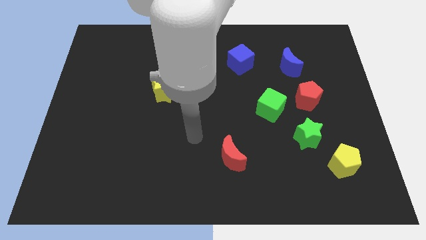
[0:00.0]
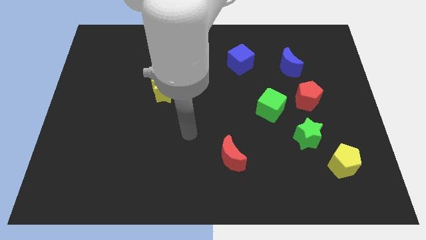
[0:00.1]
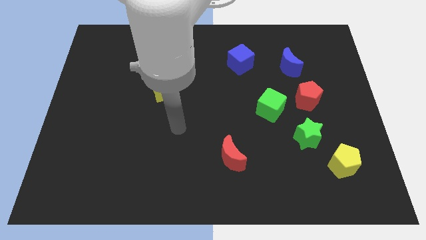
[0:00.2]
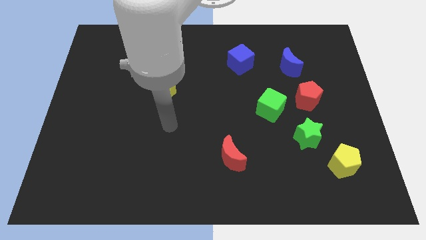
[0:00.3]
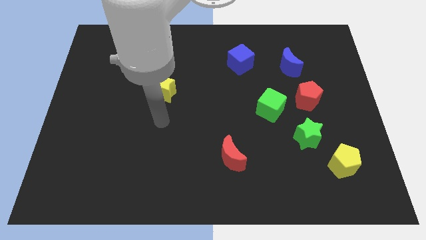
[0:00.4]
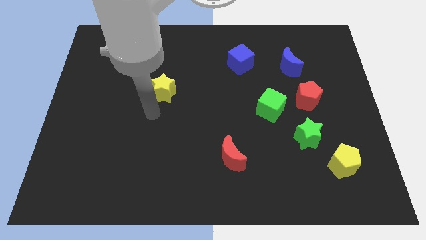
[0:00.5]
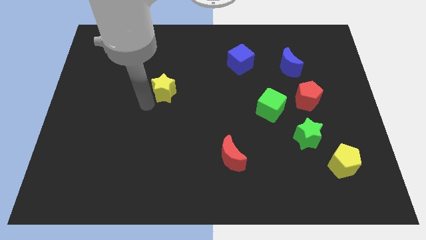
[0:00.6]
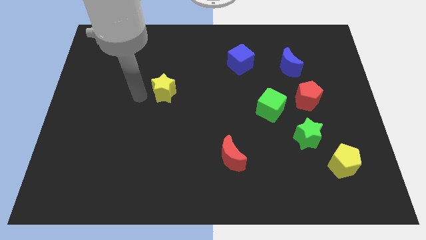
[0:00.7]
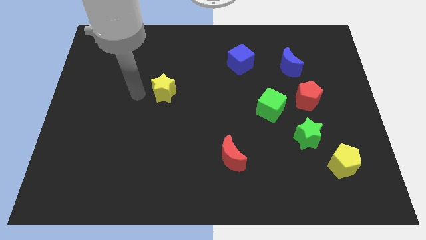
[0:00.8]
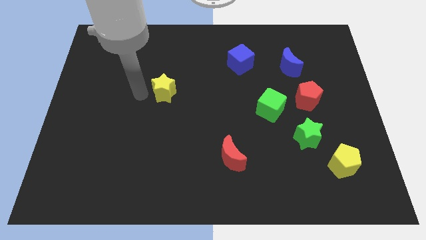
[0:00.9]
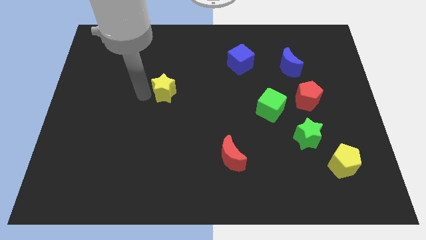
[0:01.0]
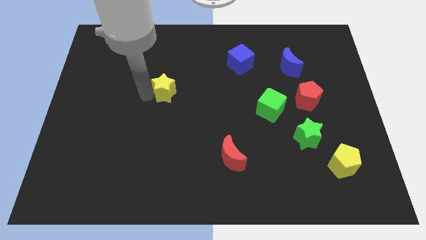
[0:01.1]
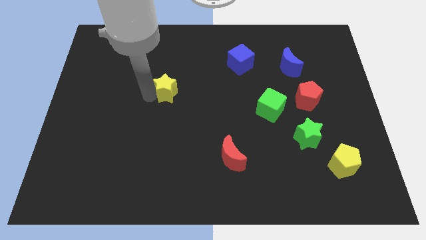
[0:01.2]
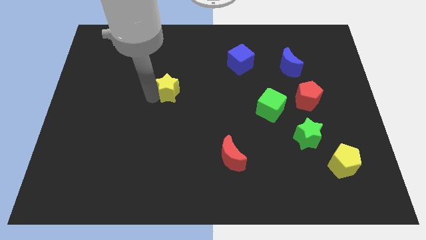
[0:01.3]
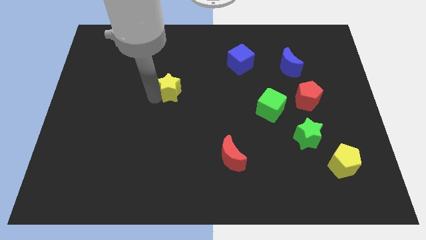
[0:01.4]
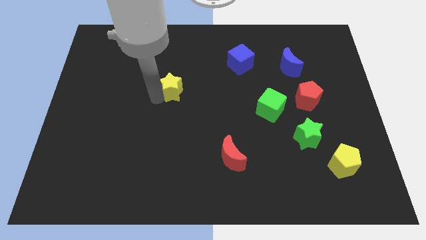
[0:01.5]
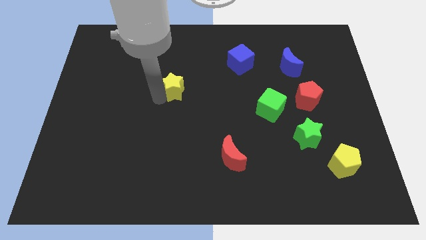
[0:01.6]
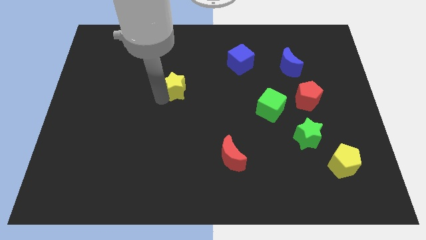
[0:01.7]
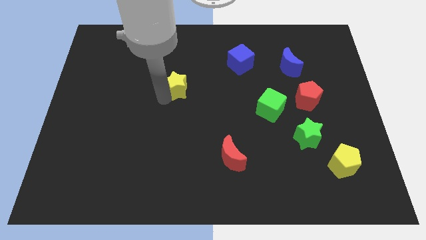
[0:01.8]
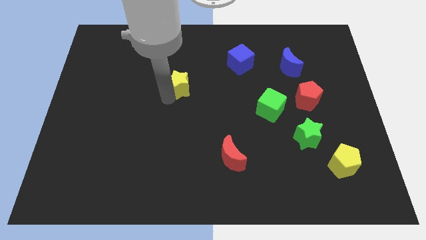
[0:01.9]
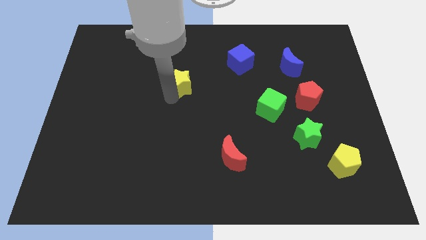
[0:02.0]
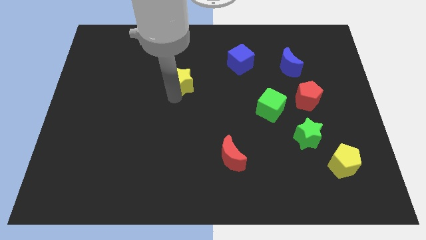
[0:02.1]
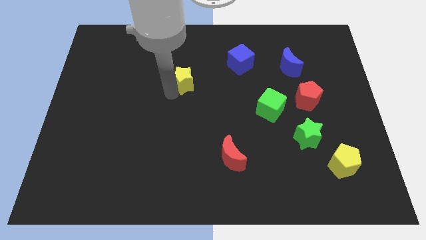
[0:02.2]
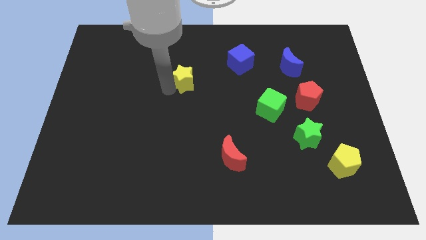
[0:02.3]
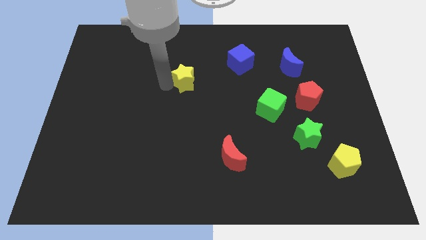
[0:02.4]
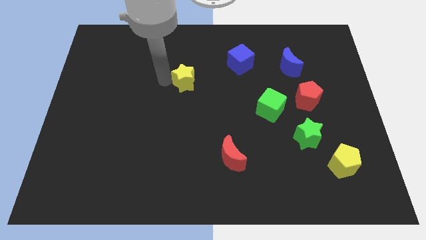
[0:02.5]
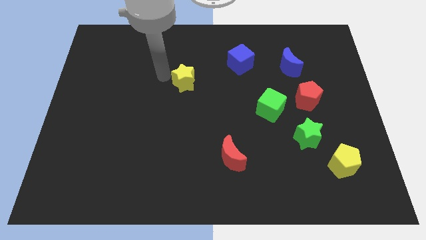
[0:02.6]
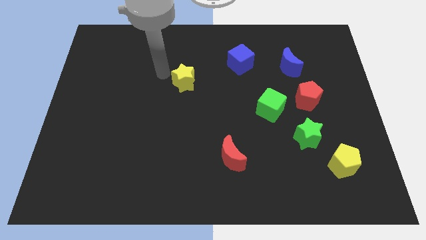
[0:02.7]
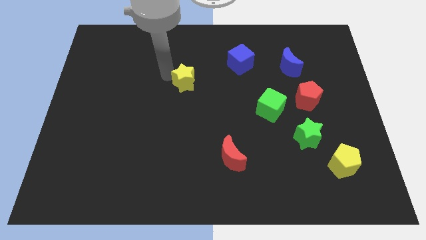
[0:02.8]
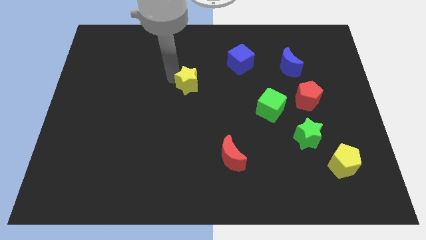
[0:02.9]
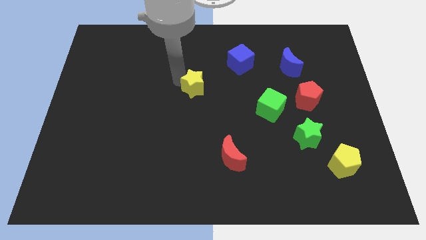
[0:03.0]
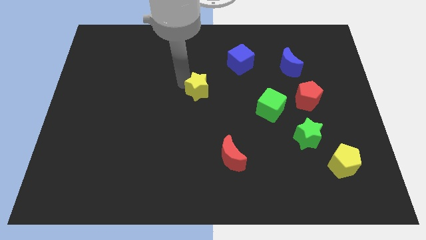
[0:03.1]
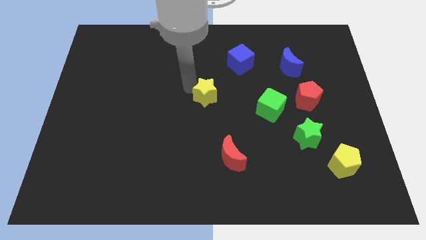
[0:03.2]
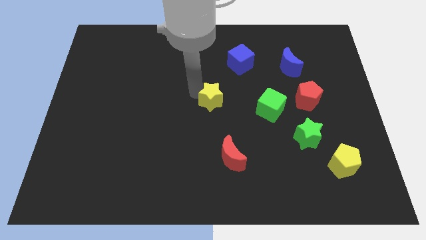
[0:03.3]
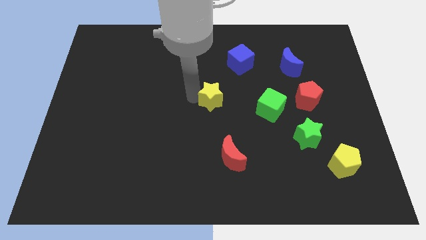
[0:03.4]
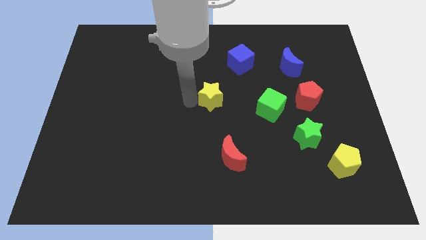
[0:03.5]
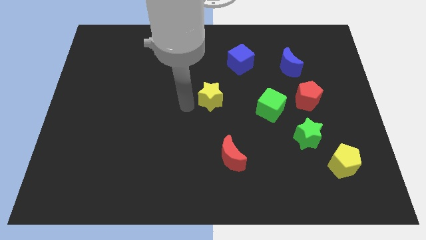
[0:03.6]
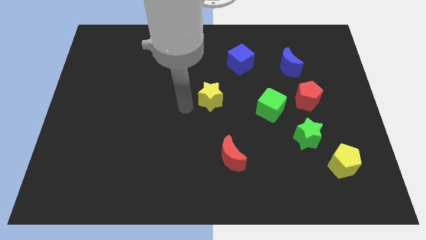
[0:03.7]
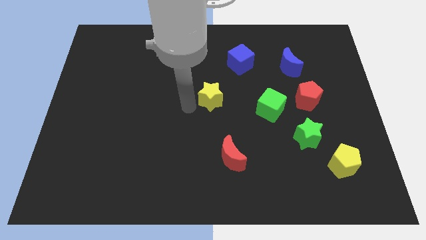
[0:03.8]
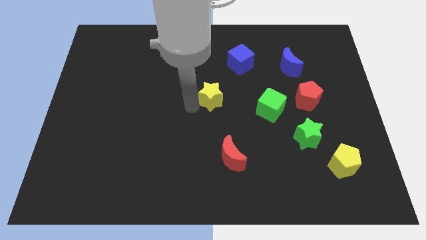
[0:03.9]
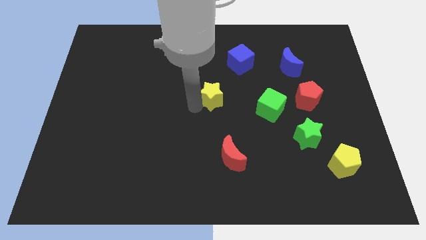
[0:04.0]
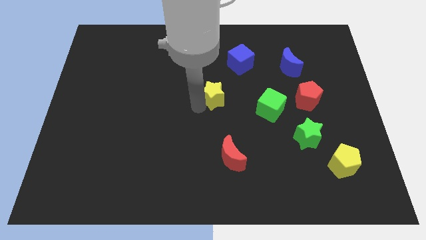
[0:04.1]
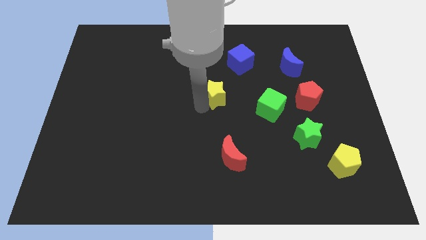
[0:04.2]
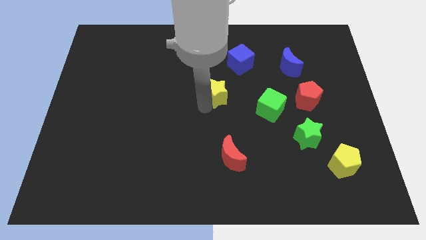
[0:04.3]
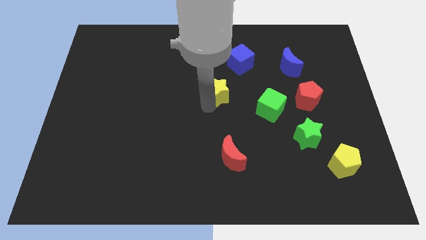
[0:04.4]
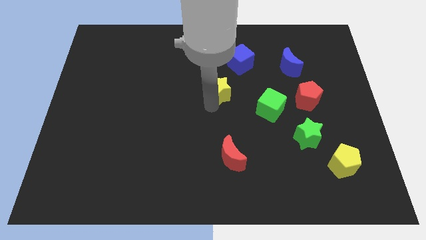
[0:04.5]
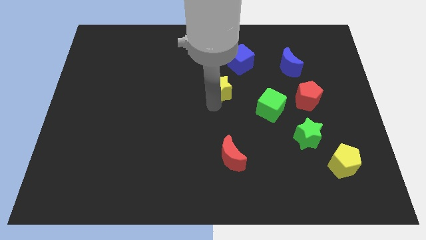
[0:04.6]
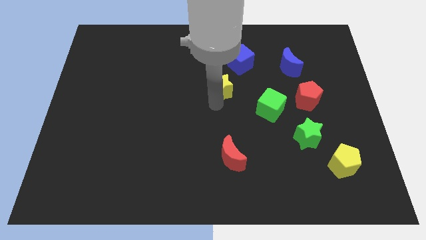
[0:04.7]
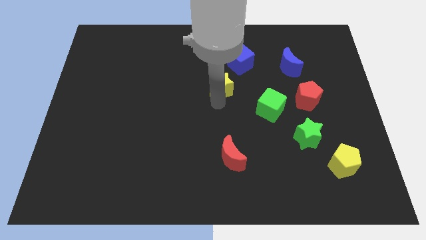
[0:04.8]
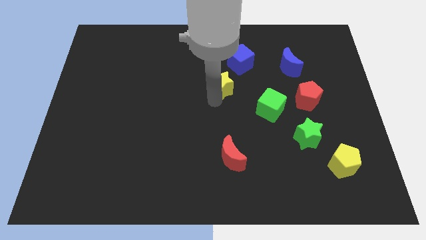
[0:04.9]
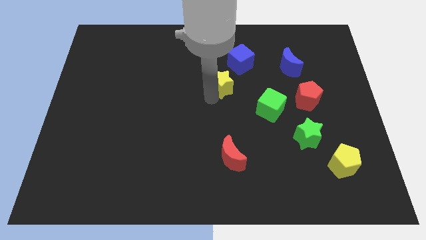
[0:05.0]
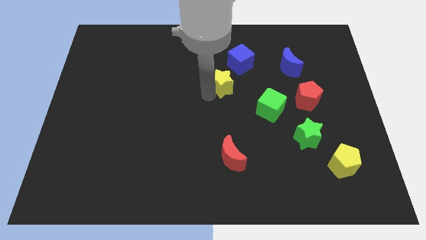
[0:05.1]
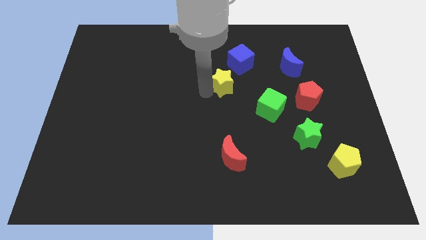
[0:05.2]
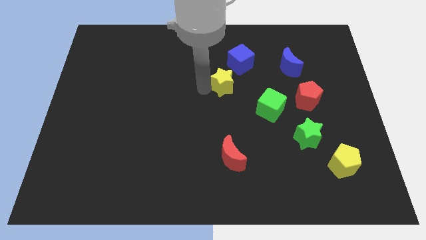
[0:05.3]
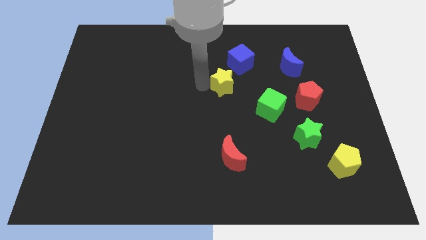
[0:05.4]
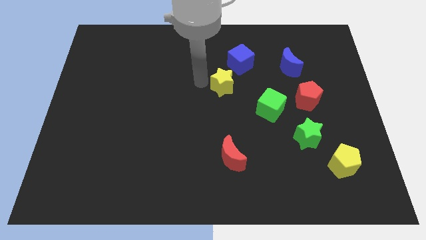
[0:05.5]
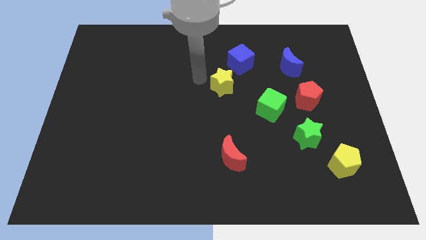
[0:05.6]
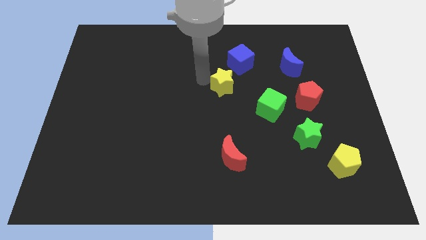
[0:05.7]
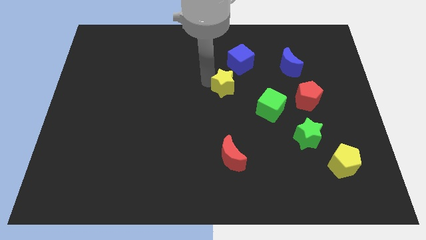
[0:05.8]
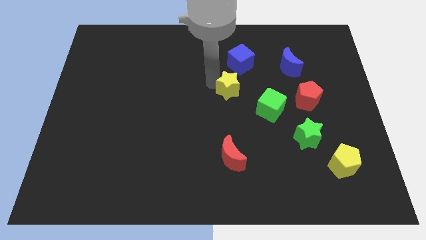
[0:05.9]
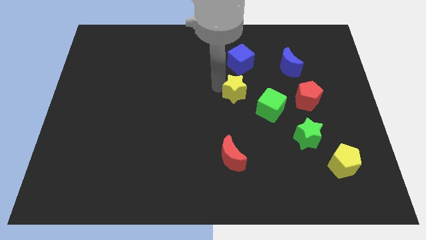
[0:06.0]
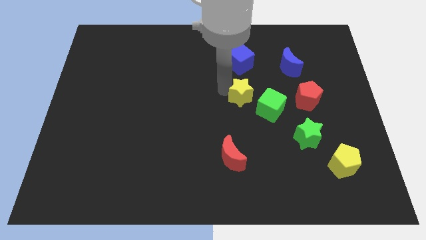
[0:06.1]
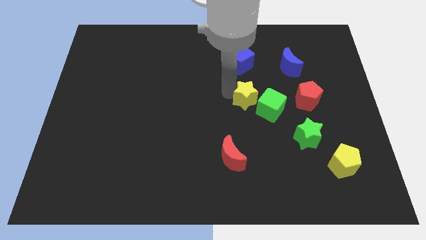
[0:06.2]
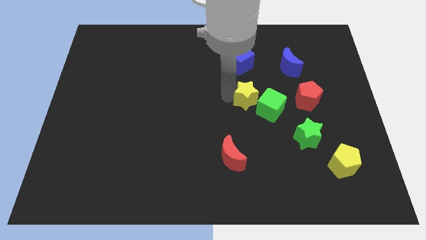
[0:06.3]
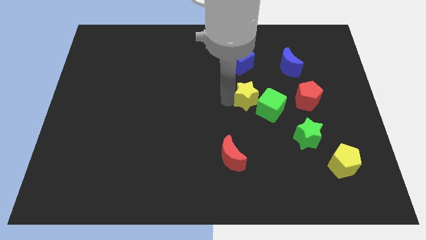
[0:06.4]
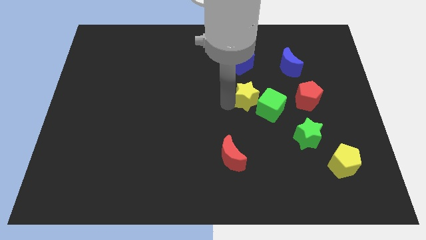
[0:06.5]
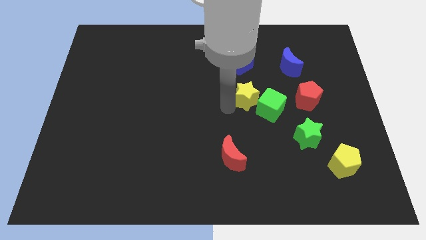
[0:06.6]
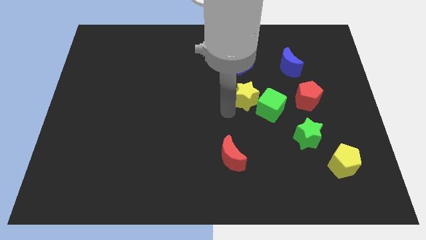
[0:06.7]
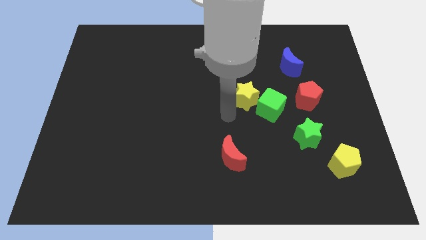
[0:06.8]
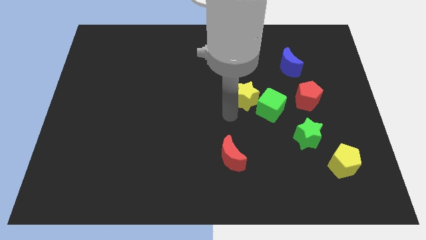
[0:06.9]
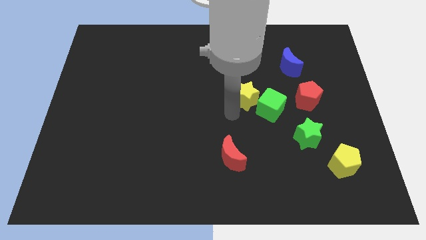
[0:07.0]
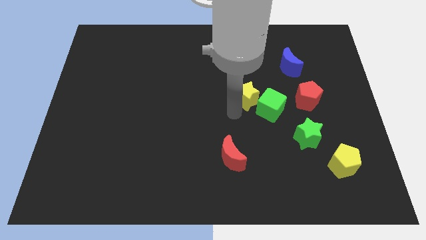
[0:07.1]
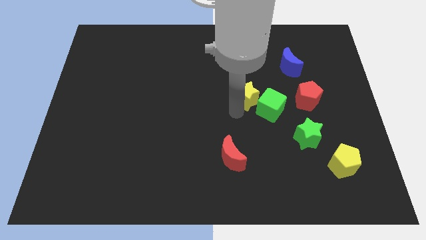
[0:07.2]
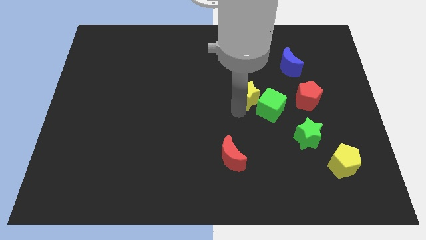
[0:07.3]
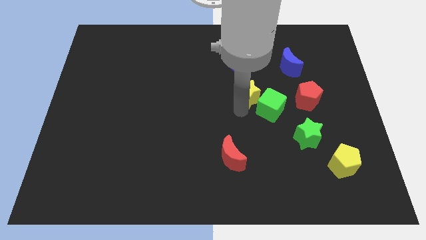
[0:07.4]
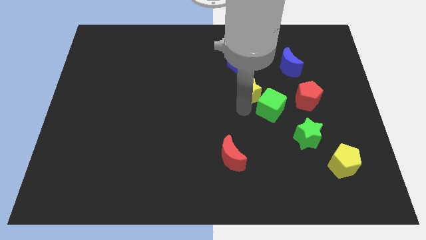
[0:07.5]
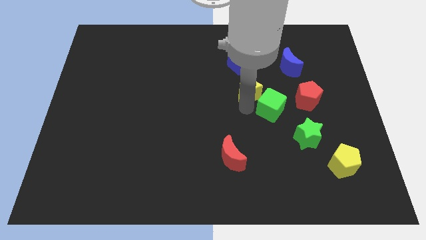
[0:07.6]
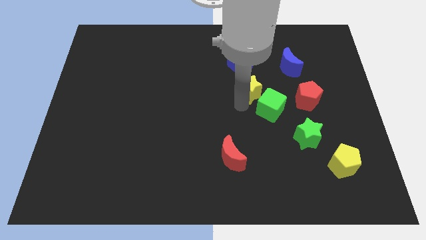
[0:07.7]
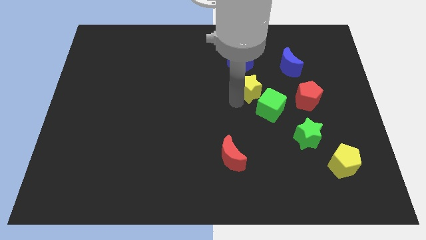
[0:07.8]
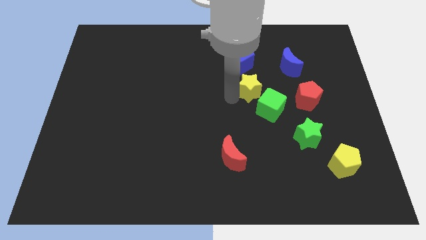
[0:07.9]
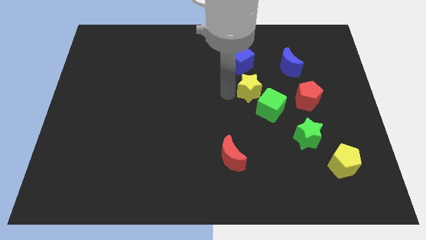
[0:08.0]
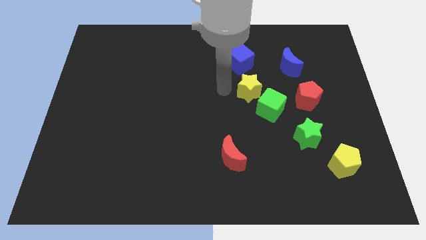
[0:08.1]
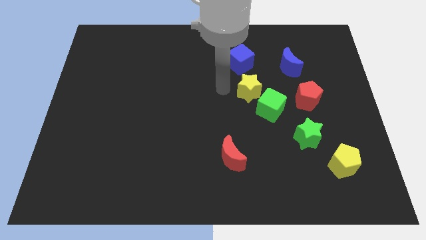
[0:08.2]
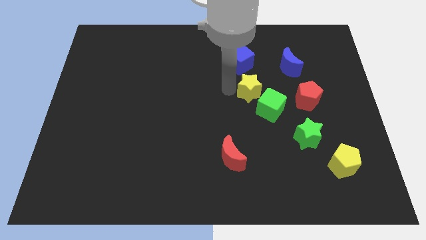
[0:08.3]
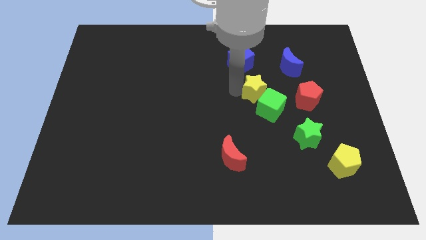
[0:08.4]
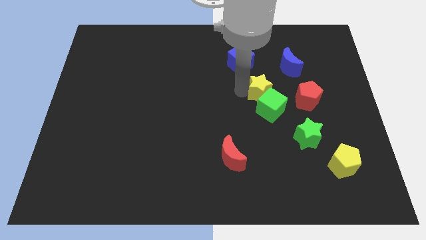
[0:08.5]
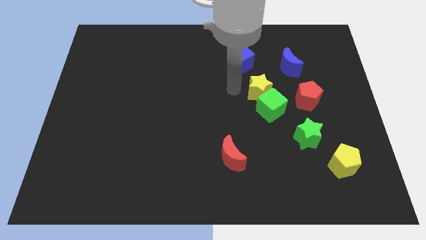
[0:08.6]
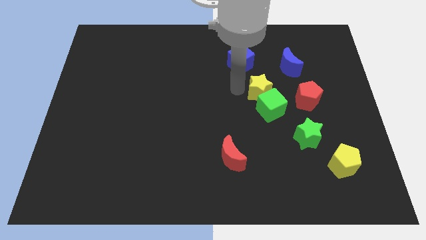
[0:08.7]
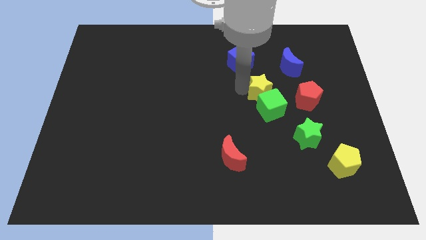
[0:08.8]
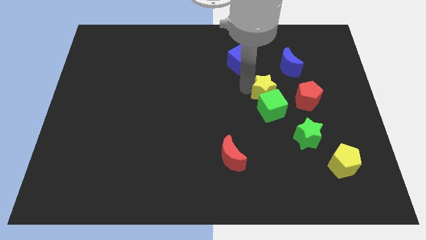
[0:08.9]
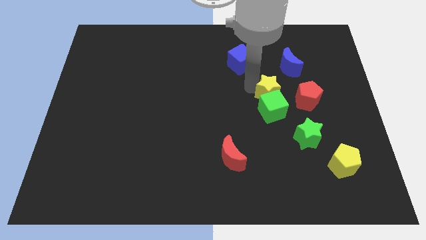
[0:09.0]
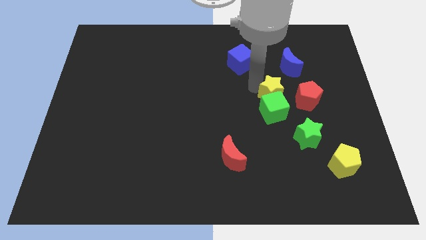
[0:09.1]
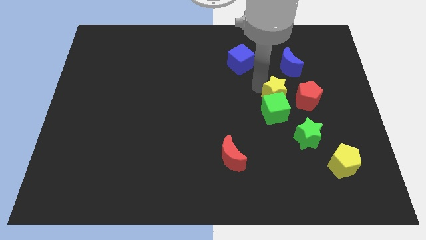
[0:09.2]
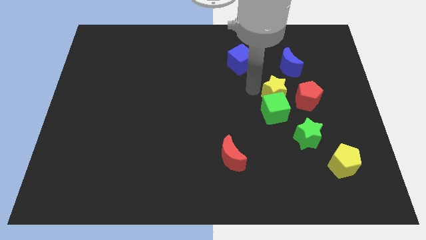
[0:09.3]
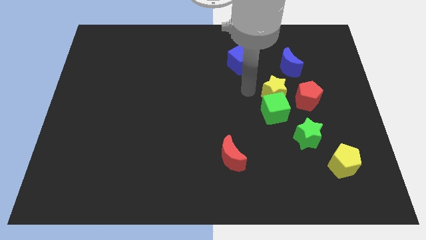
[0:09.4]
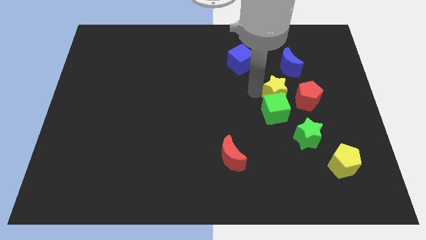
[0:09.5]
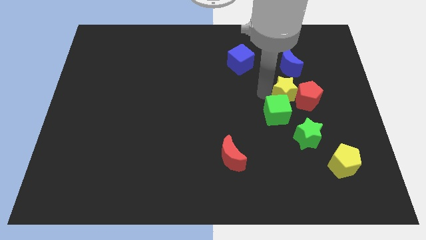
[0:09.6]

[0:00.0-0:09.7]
slide the yellow star to the red pentagon
